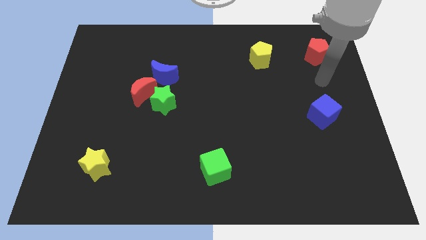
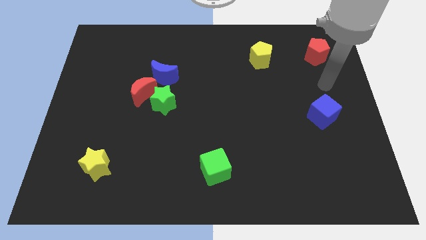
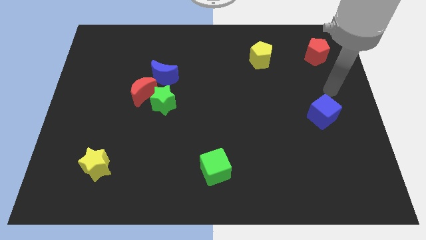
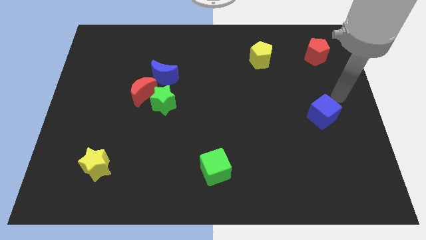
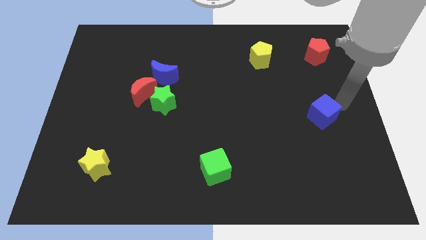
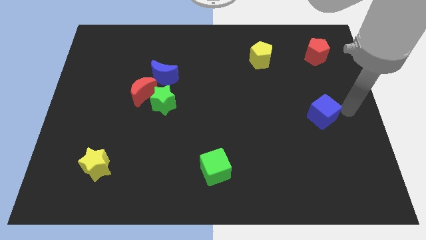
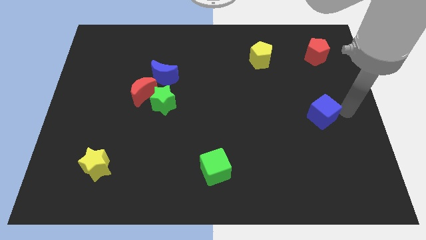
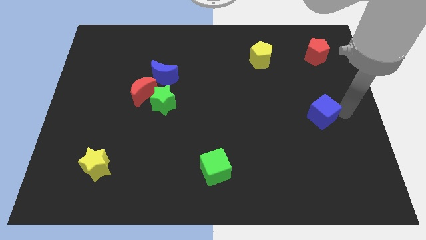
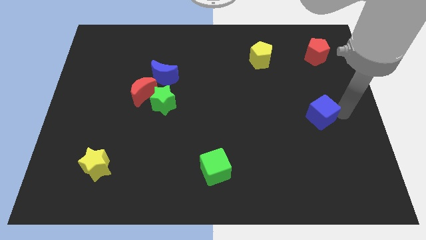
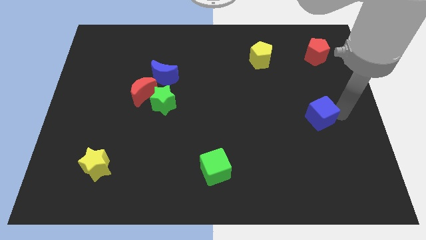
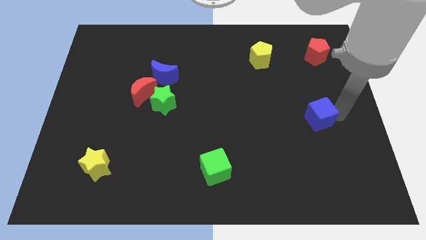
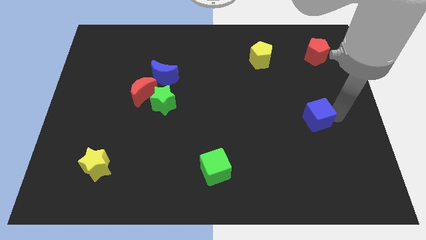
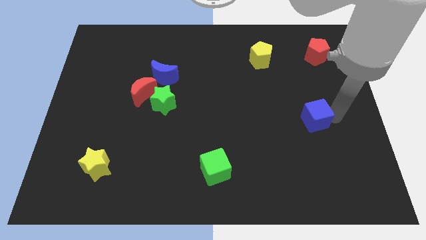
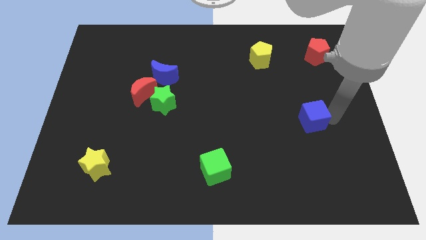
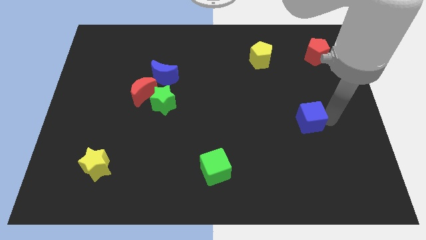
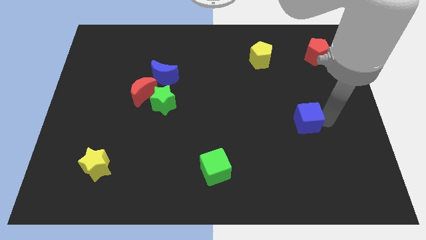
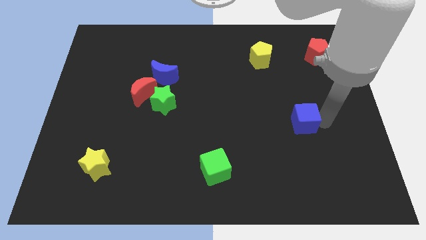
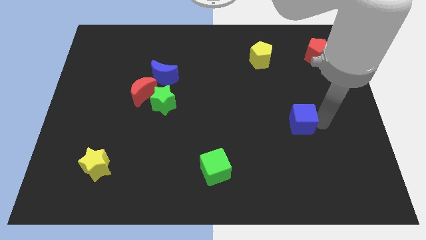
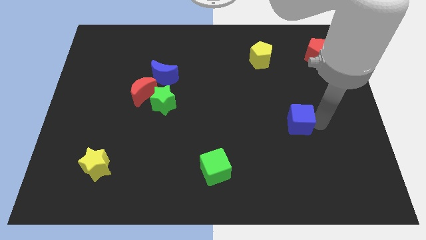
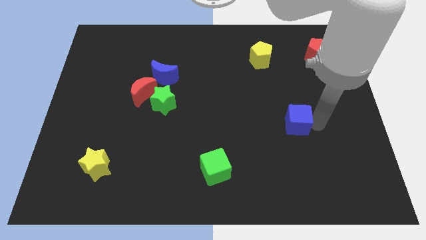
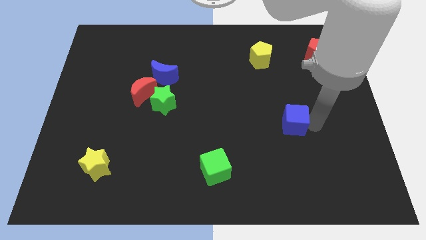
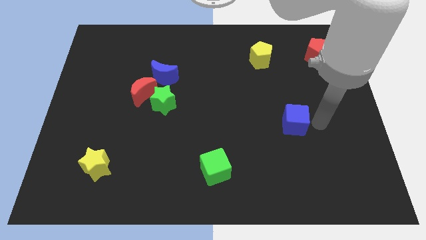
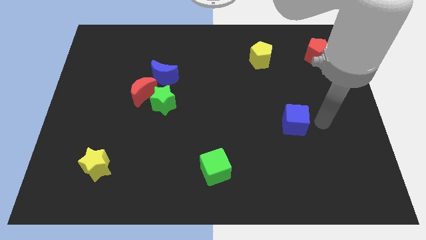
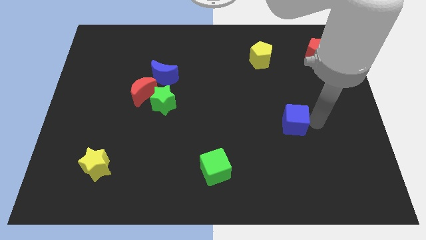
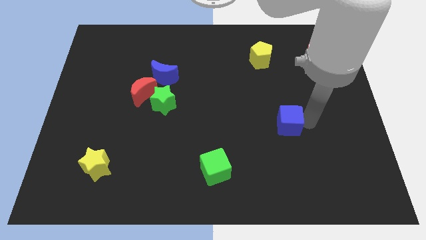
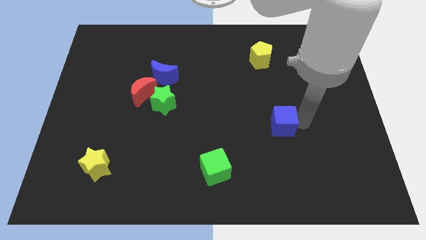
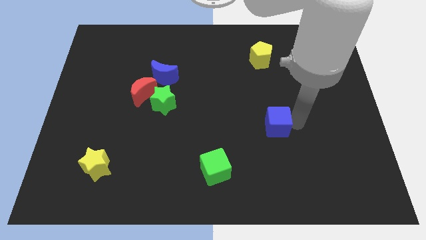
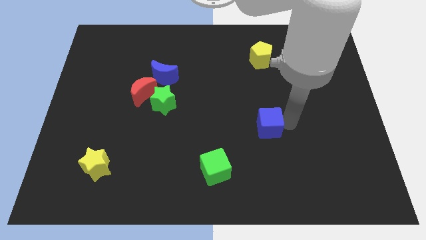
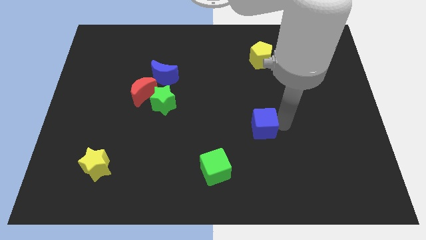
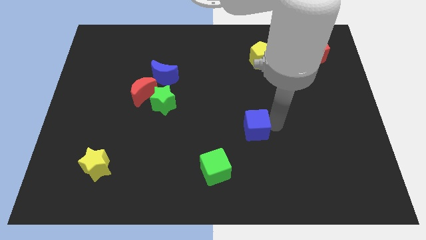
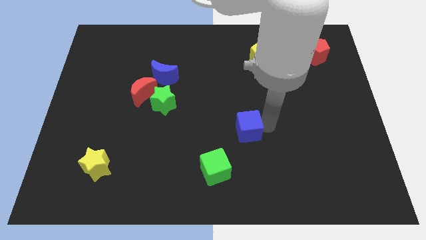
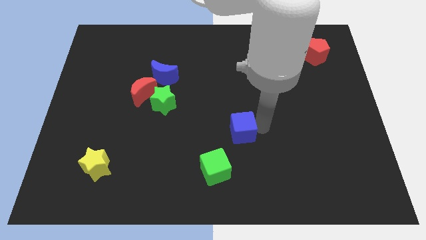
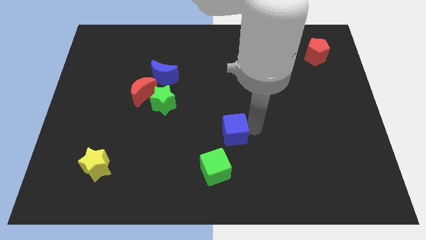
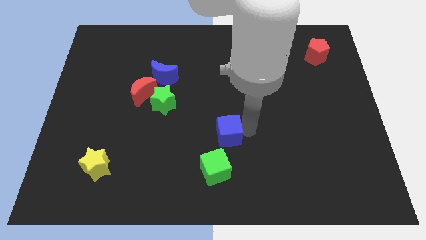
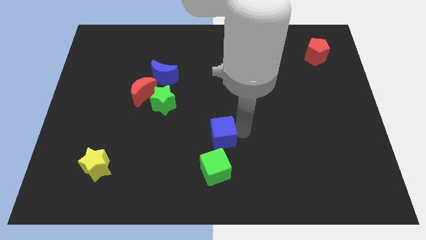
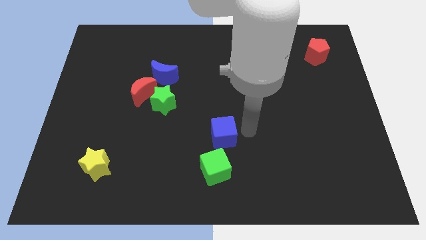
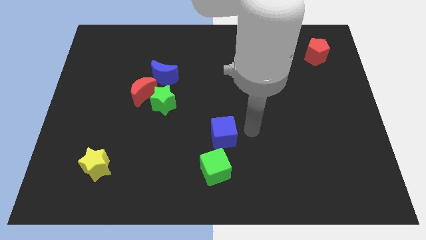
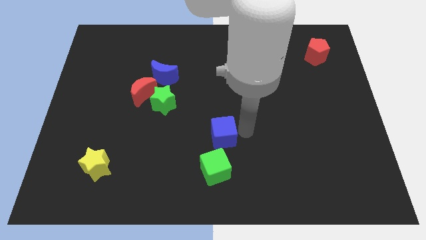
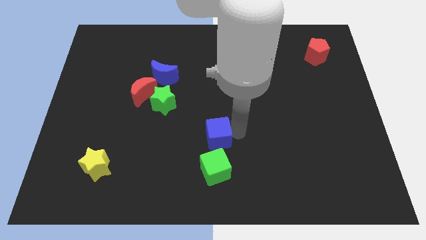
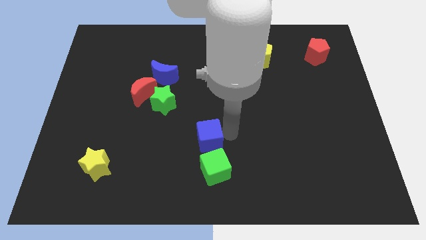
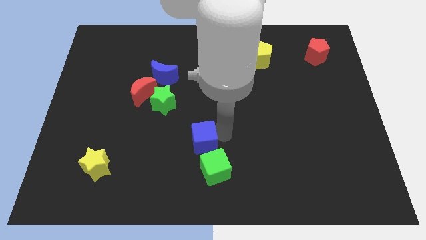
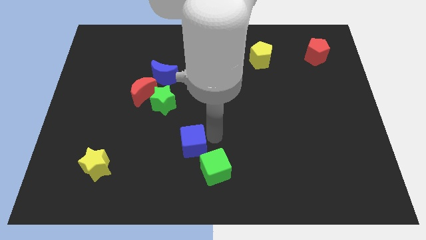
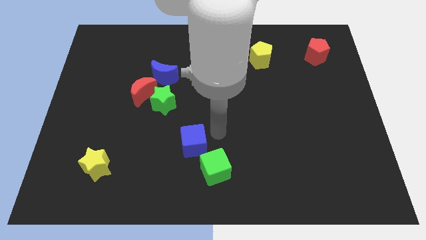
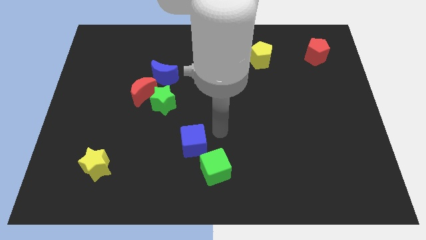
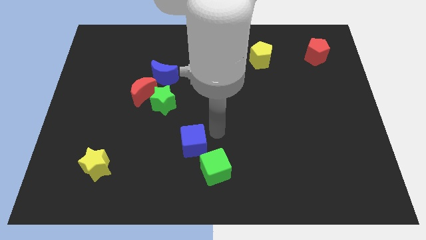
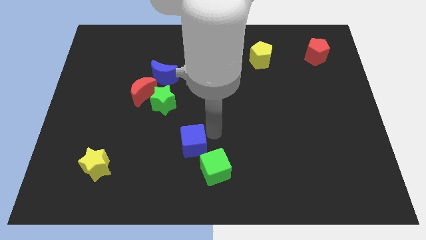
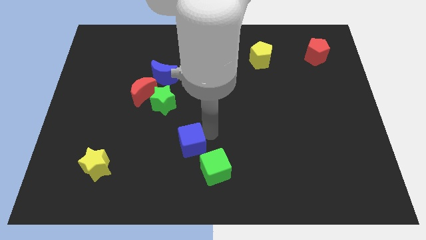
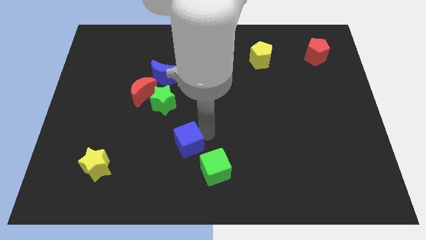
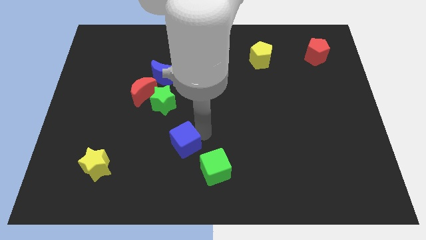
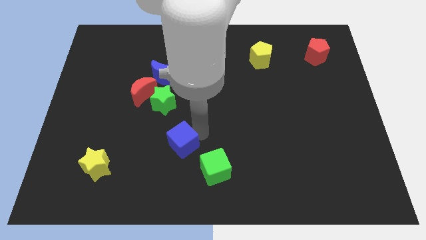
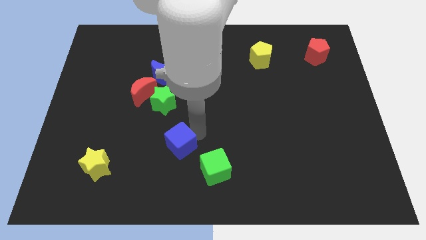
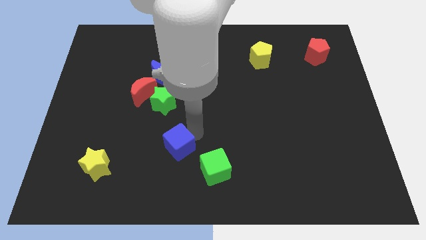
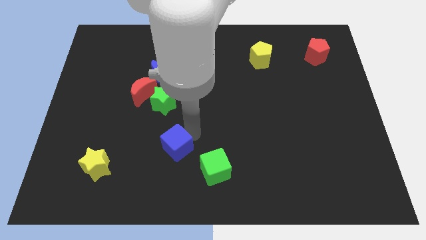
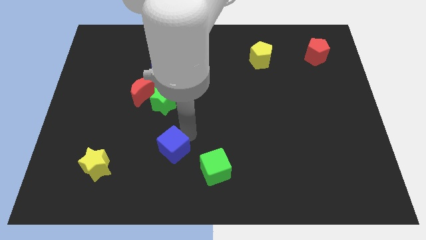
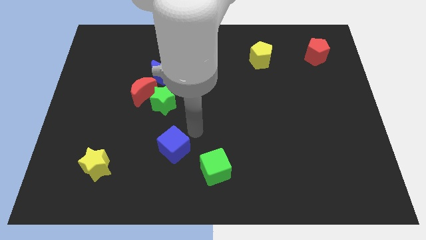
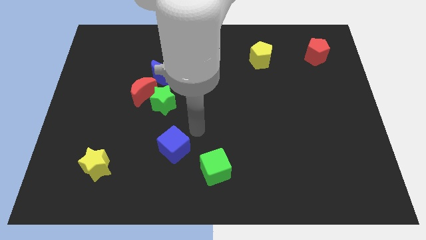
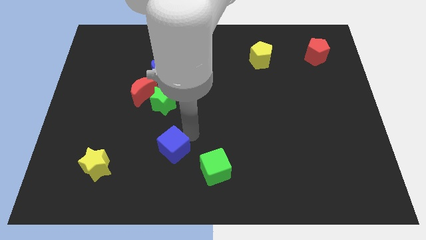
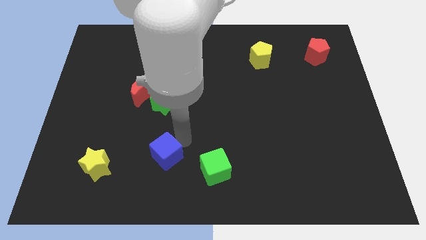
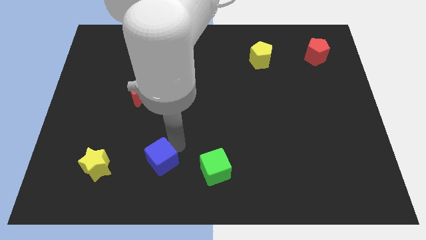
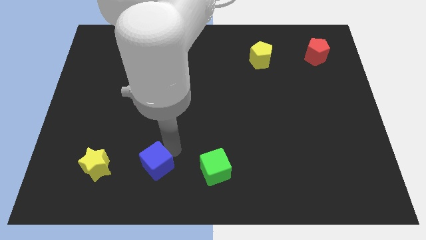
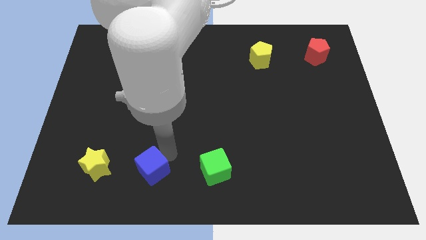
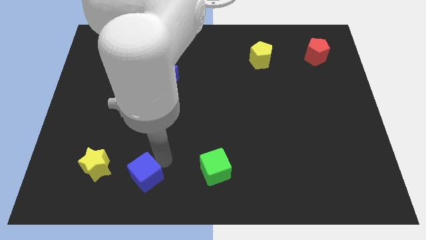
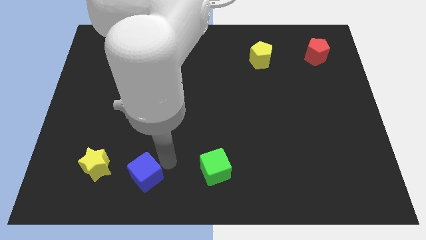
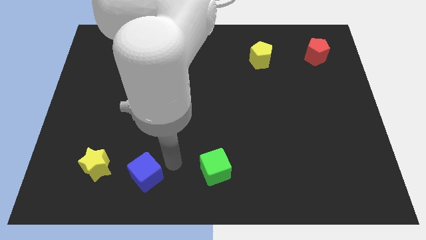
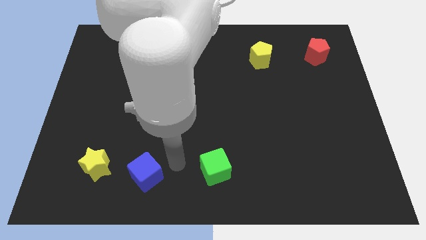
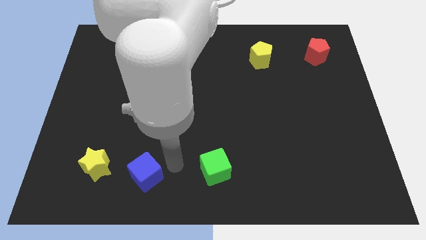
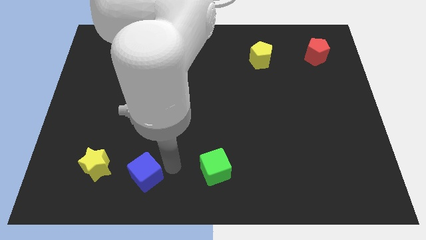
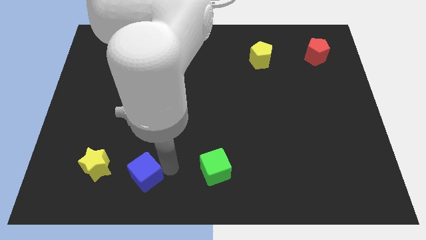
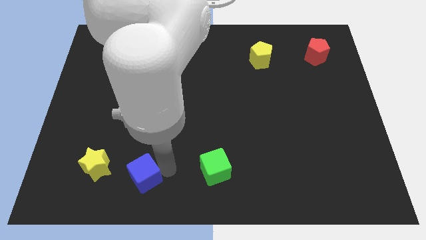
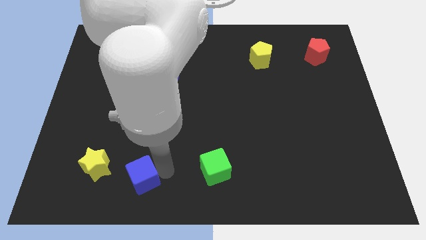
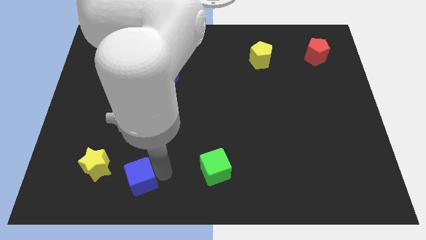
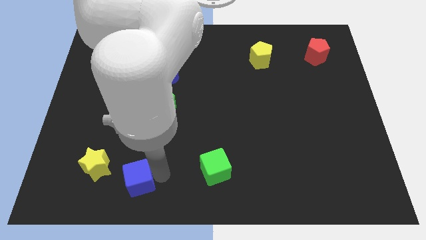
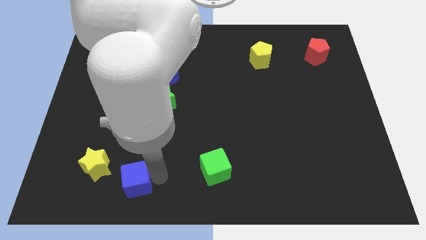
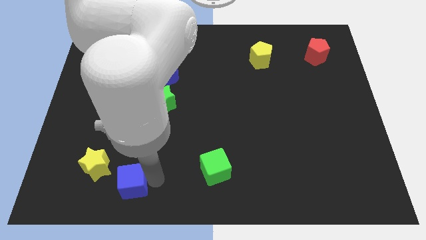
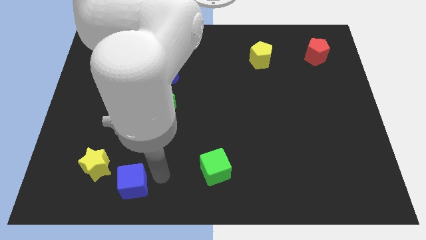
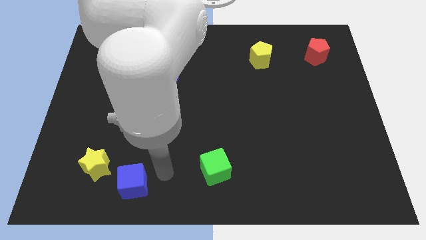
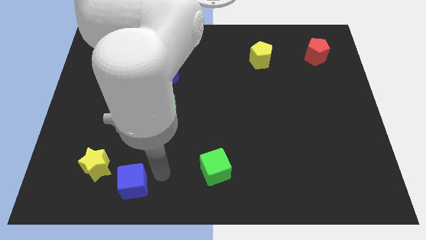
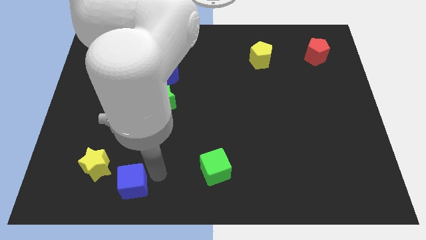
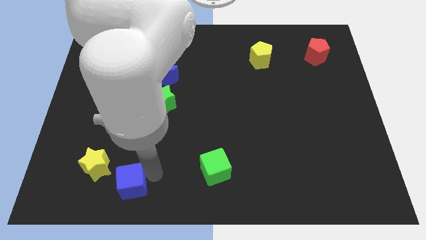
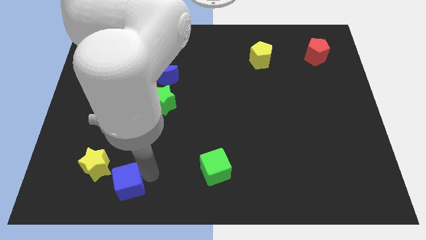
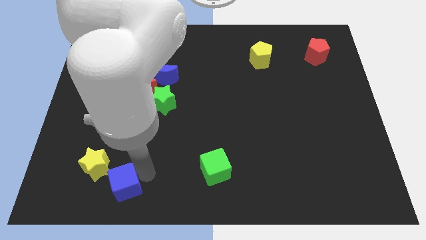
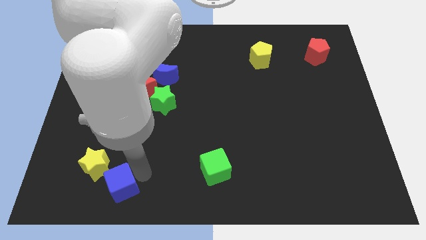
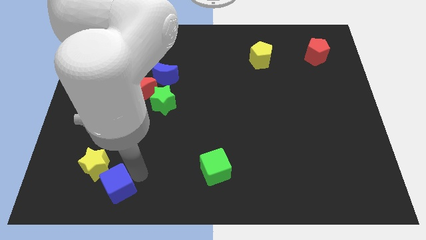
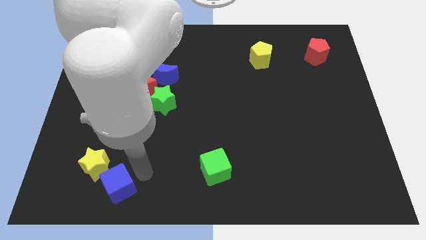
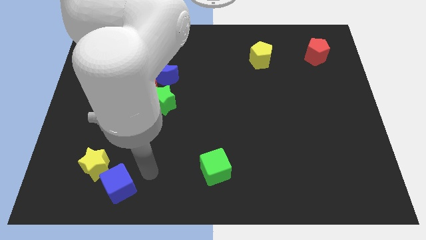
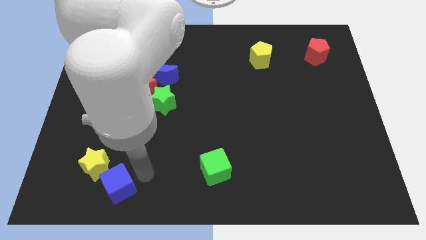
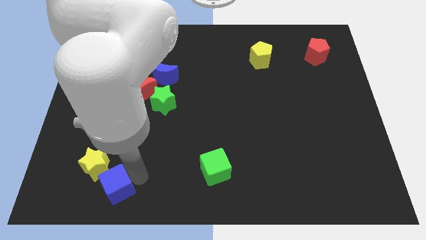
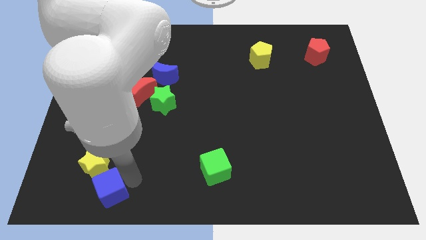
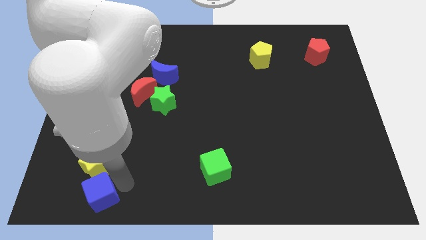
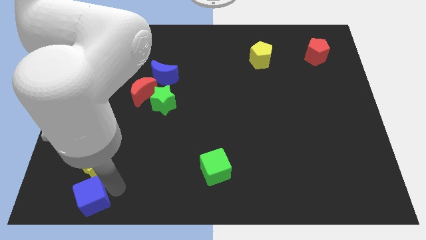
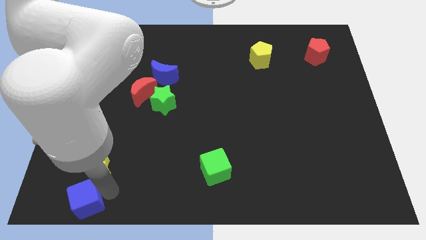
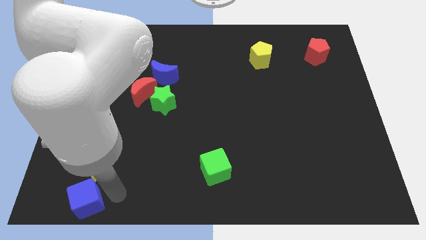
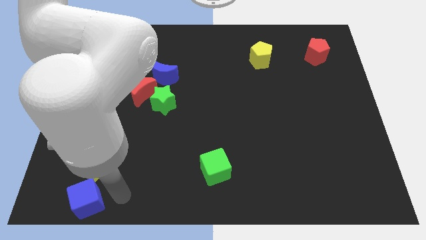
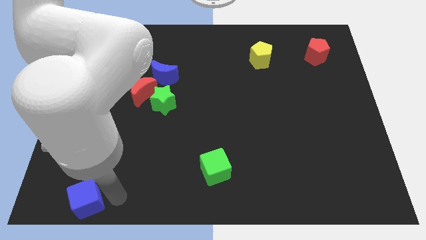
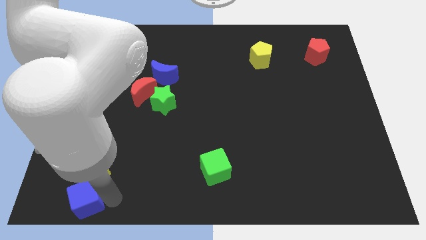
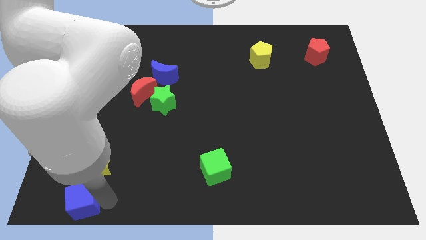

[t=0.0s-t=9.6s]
push the blue cube to the bottom left of the board
